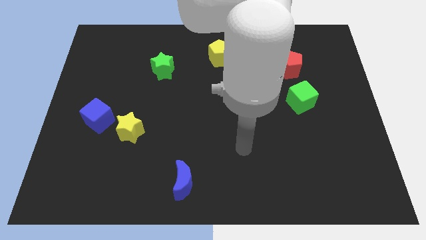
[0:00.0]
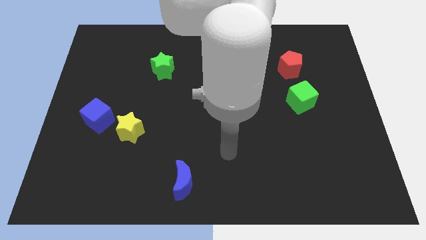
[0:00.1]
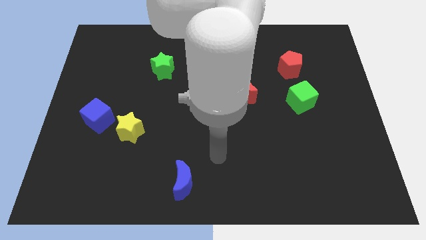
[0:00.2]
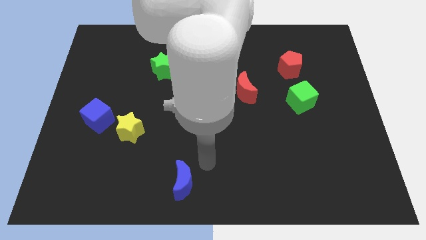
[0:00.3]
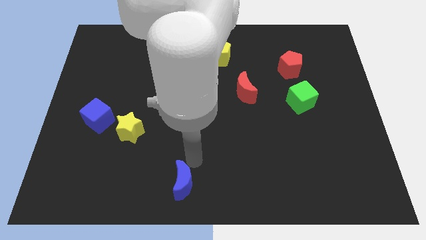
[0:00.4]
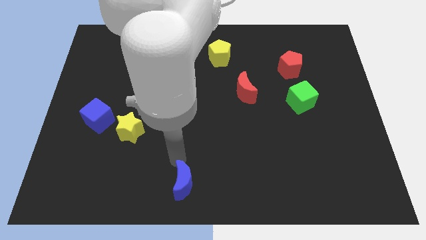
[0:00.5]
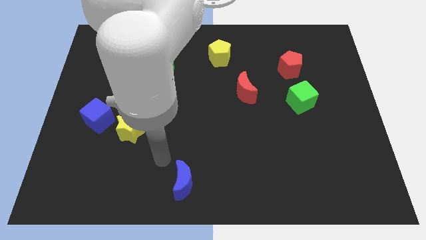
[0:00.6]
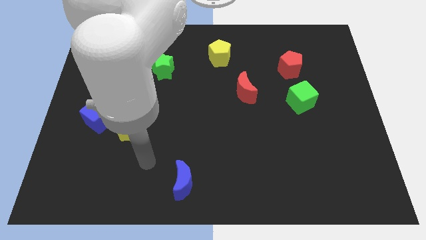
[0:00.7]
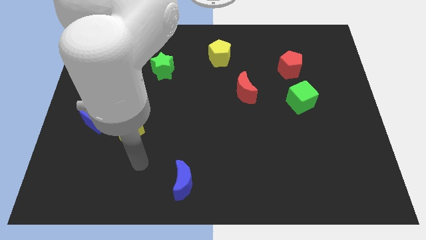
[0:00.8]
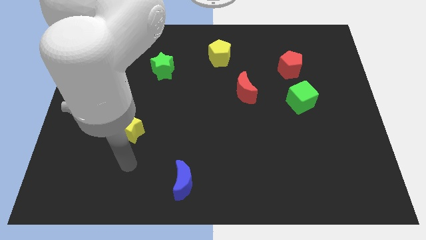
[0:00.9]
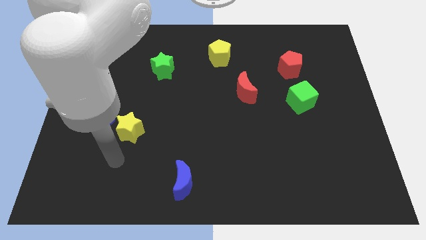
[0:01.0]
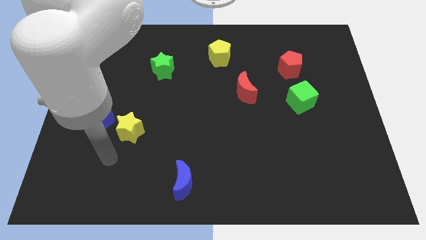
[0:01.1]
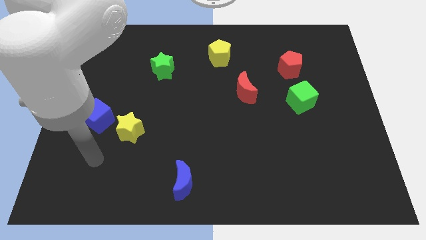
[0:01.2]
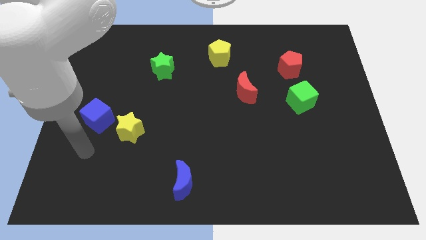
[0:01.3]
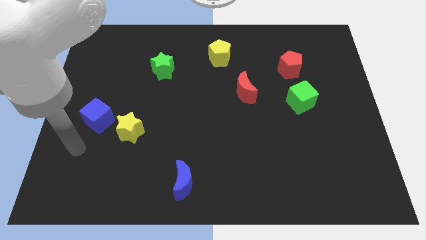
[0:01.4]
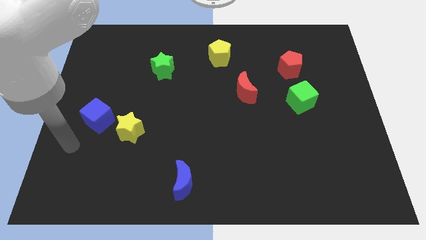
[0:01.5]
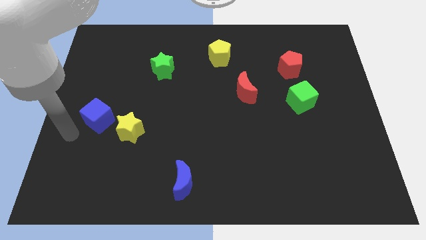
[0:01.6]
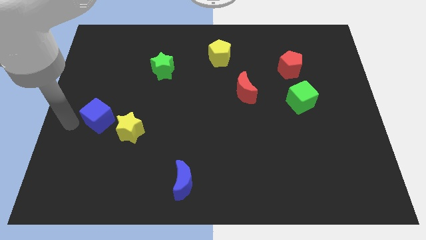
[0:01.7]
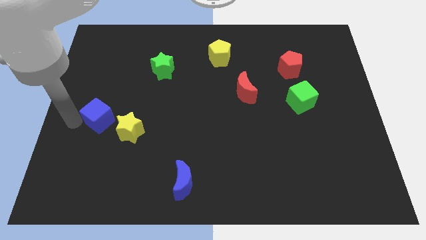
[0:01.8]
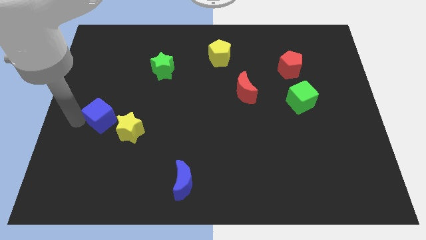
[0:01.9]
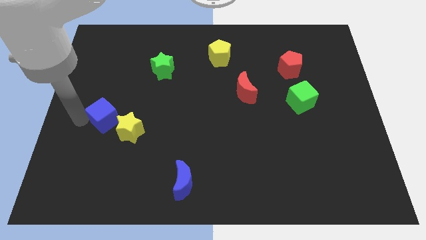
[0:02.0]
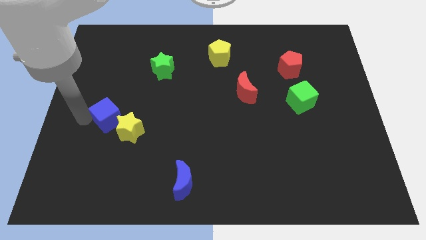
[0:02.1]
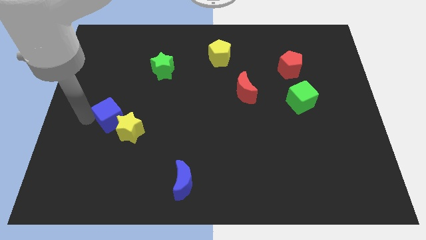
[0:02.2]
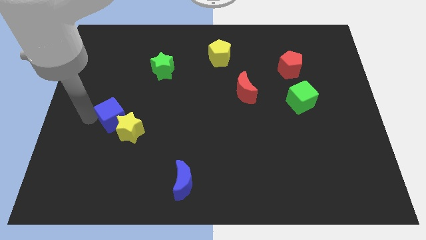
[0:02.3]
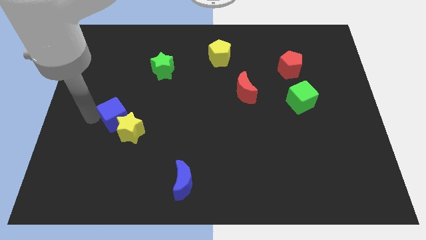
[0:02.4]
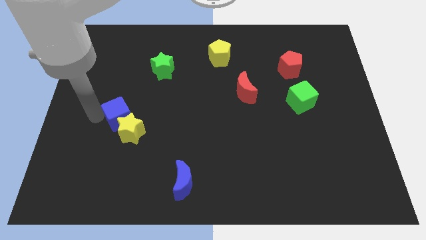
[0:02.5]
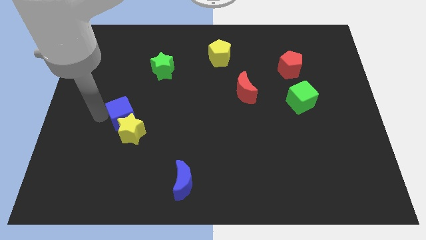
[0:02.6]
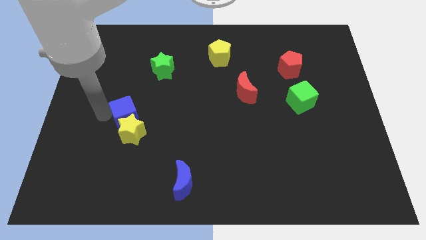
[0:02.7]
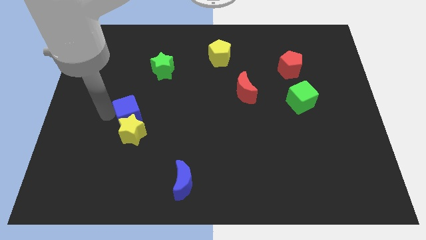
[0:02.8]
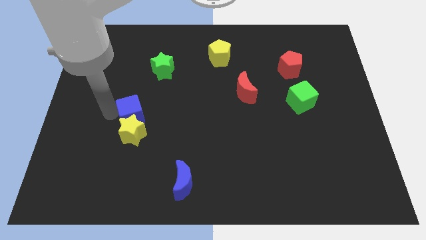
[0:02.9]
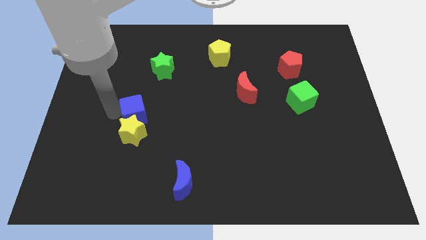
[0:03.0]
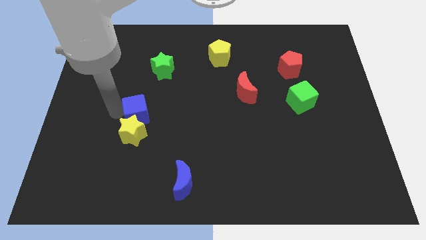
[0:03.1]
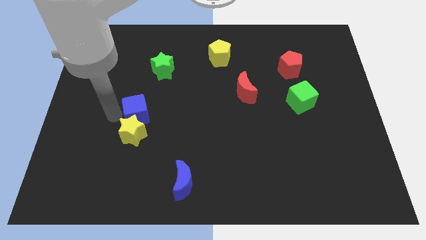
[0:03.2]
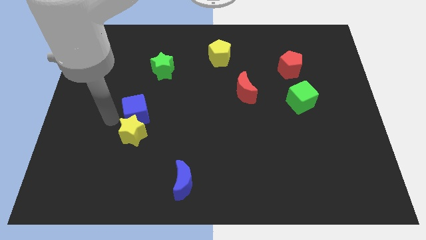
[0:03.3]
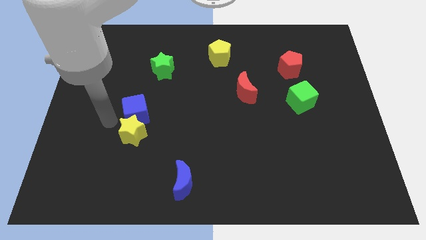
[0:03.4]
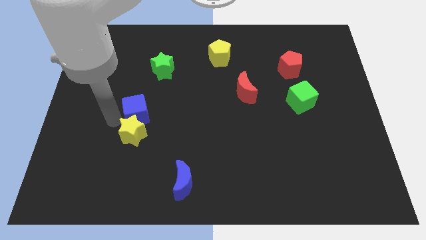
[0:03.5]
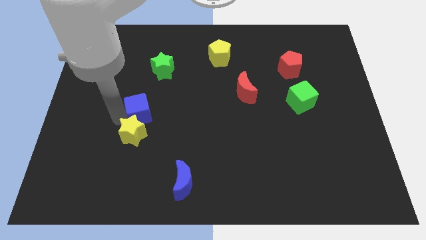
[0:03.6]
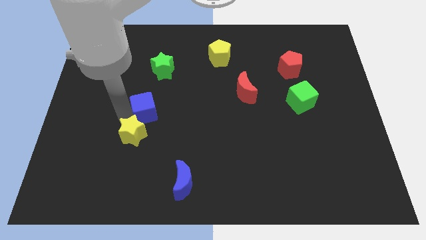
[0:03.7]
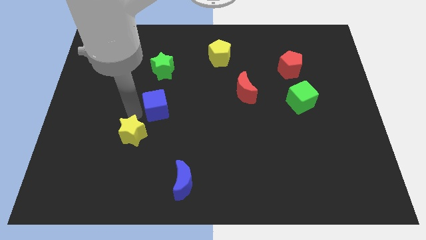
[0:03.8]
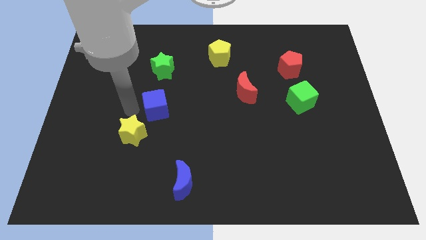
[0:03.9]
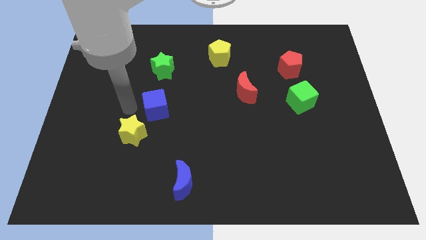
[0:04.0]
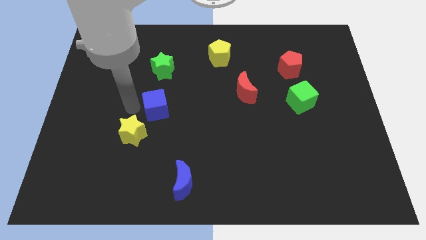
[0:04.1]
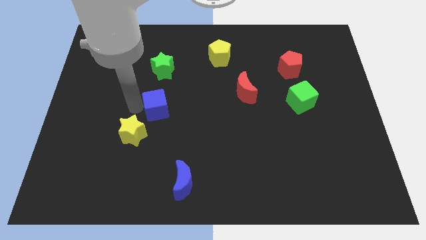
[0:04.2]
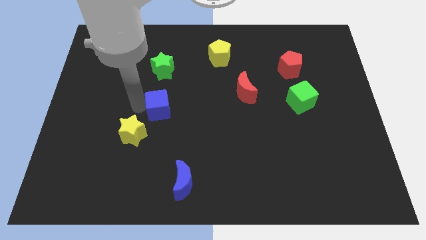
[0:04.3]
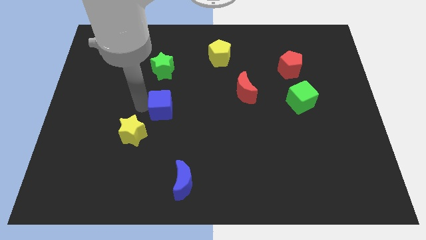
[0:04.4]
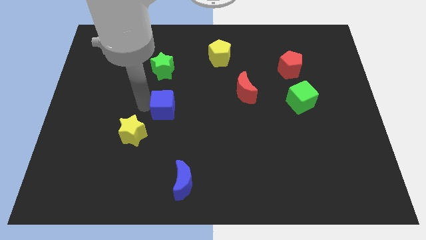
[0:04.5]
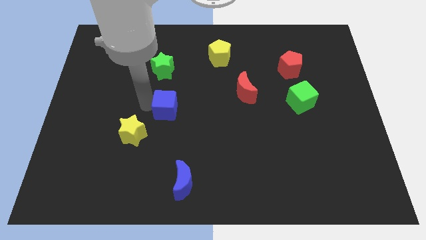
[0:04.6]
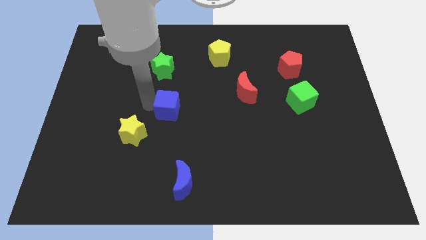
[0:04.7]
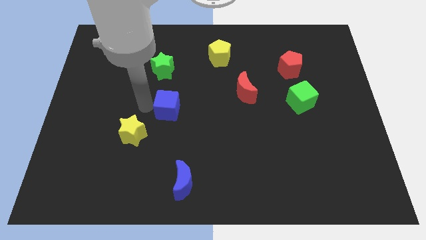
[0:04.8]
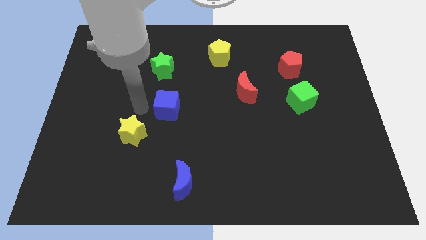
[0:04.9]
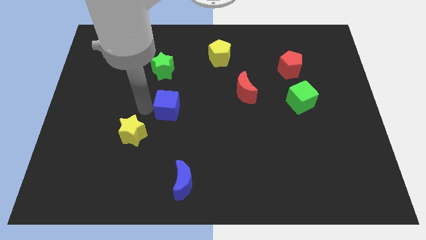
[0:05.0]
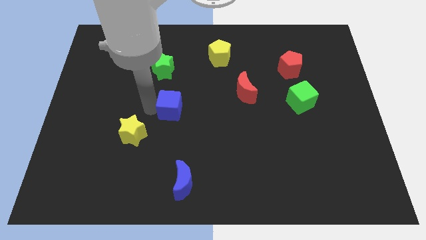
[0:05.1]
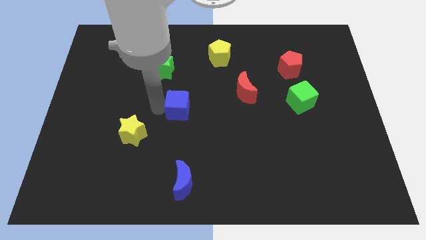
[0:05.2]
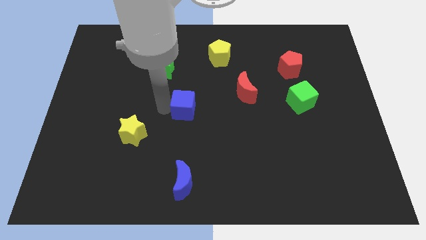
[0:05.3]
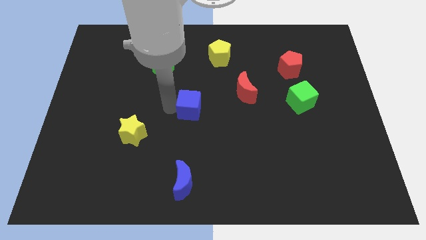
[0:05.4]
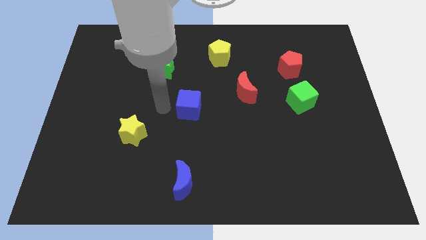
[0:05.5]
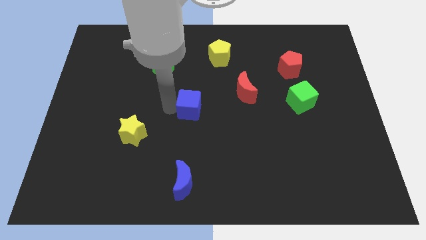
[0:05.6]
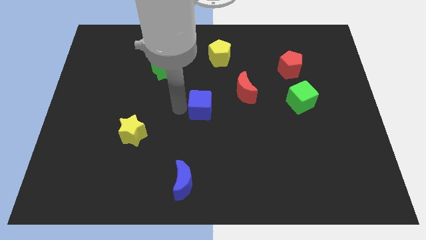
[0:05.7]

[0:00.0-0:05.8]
put the blue cube diagonally down and to the left of the red moon

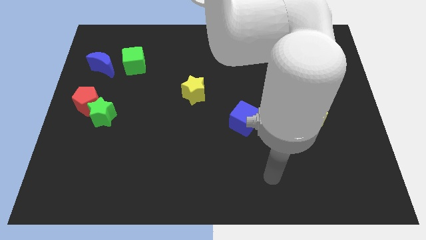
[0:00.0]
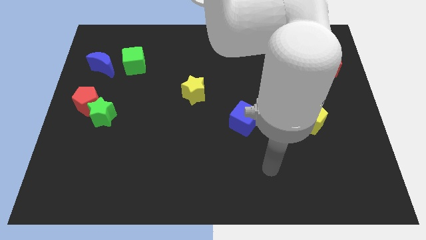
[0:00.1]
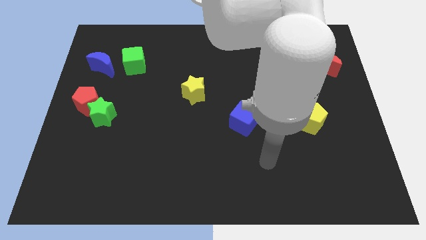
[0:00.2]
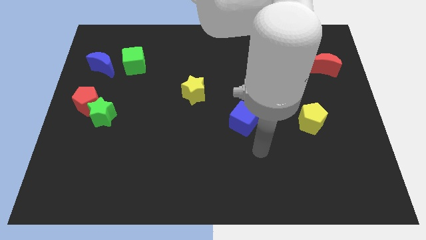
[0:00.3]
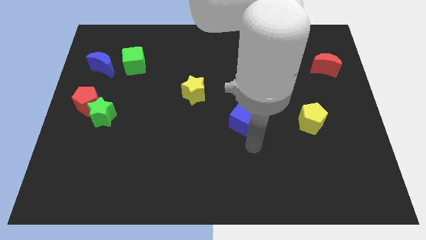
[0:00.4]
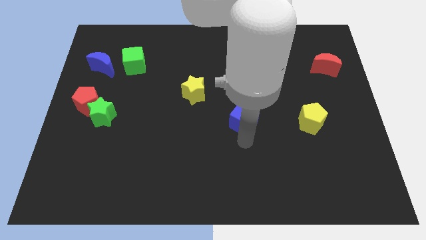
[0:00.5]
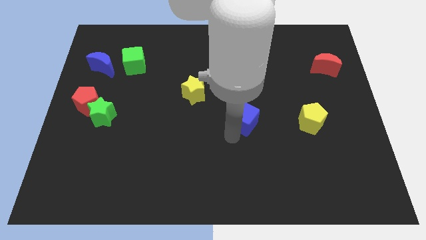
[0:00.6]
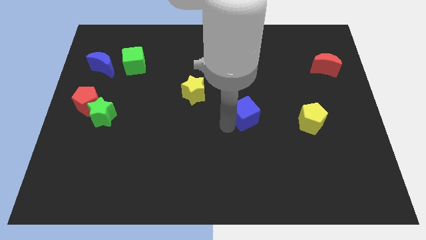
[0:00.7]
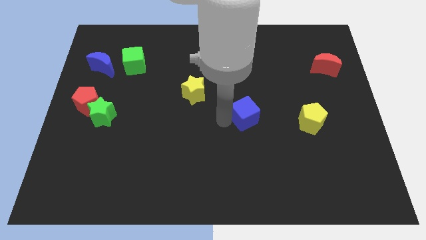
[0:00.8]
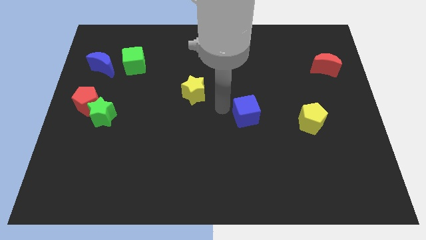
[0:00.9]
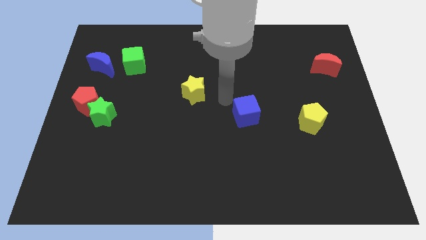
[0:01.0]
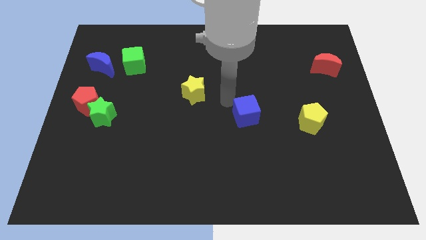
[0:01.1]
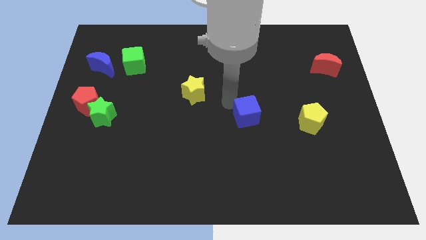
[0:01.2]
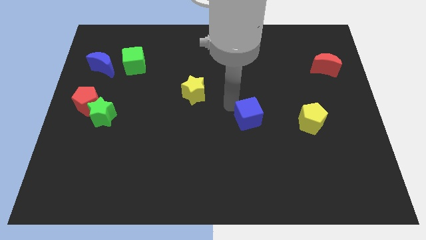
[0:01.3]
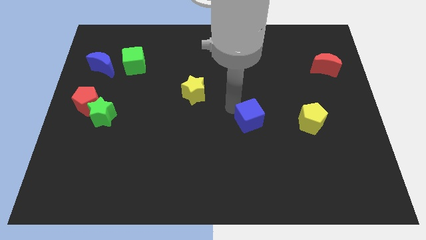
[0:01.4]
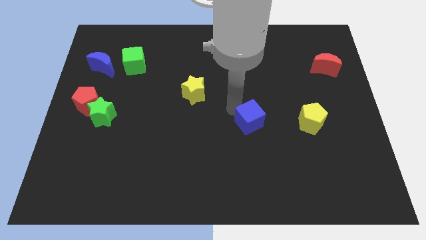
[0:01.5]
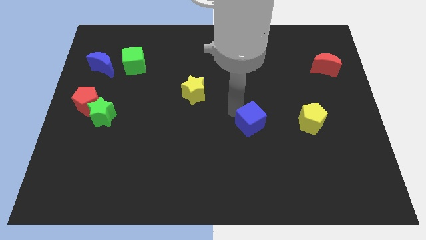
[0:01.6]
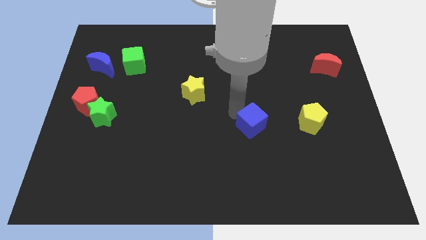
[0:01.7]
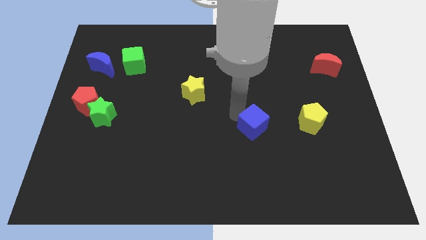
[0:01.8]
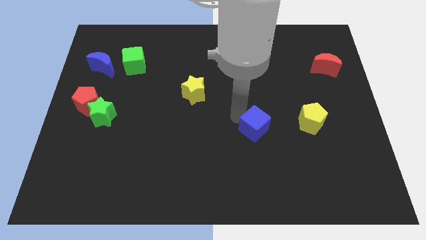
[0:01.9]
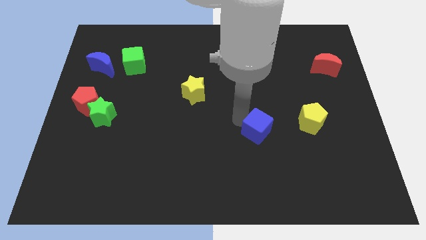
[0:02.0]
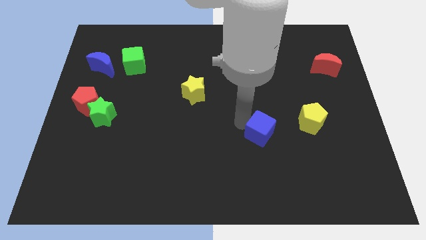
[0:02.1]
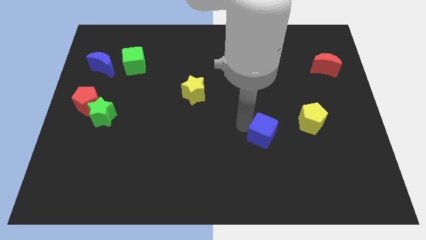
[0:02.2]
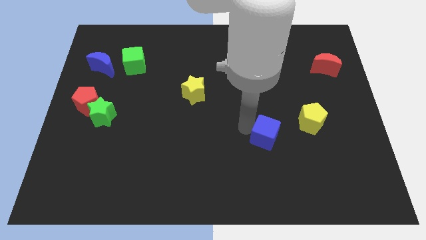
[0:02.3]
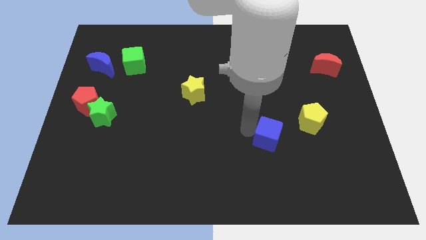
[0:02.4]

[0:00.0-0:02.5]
put the blue cube to the bottom left side of the yellow pentagon
